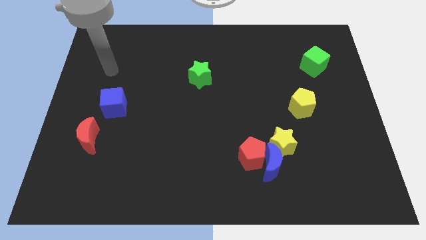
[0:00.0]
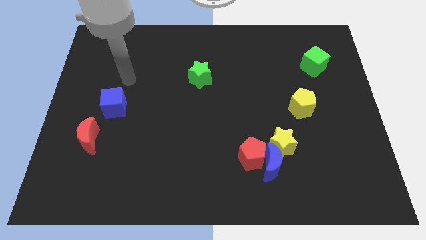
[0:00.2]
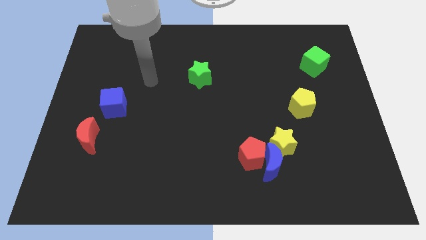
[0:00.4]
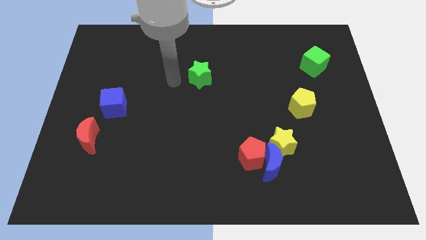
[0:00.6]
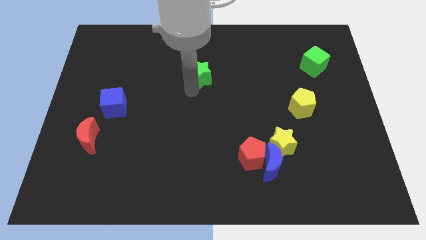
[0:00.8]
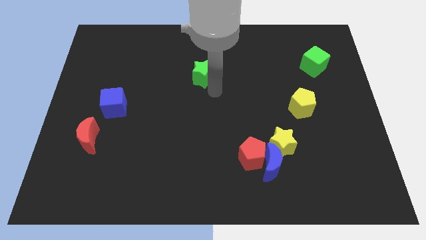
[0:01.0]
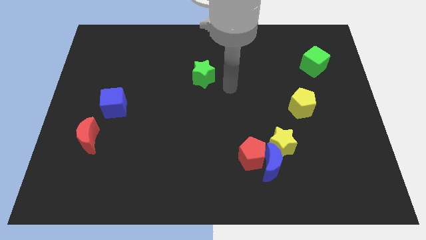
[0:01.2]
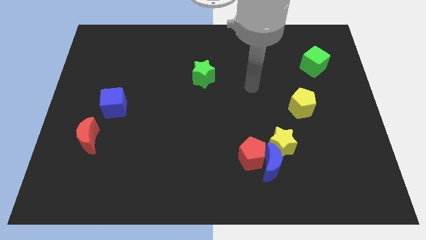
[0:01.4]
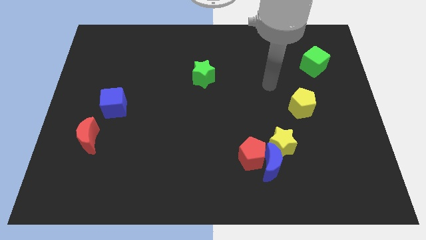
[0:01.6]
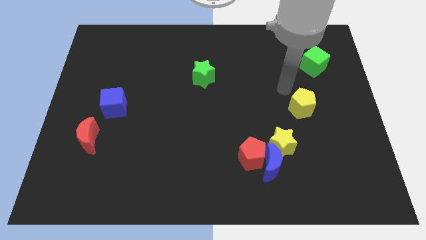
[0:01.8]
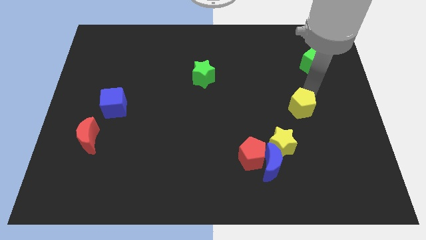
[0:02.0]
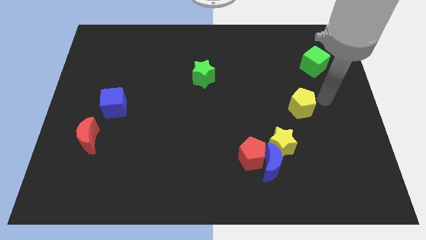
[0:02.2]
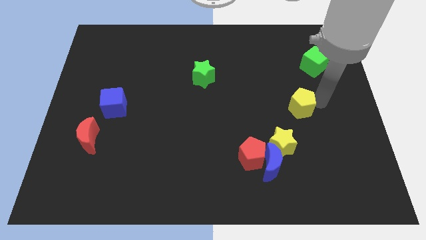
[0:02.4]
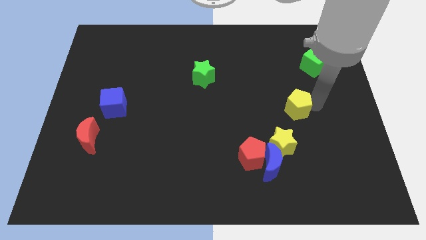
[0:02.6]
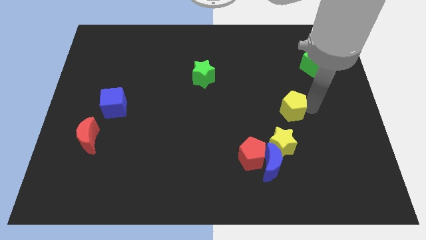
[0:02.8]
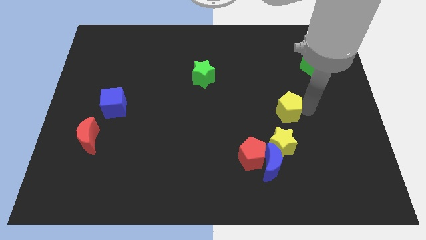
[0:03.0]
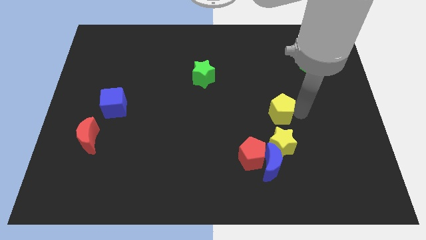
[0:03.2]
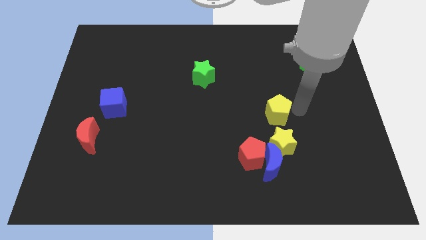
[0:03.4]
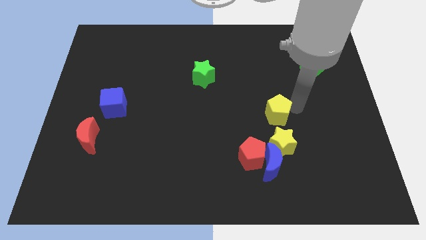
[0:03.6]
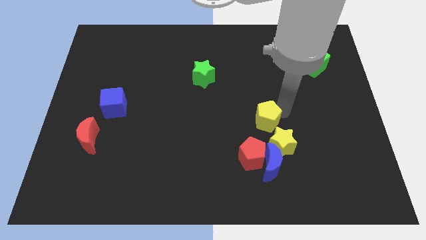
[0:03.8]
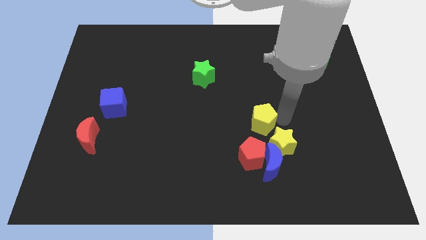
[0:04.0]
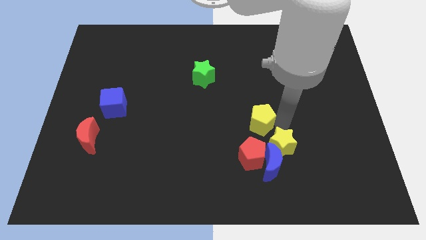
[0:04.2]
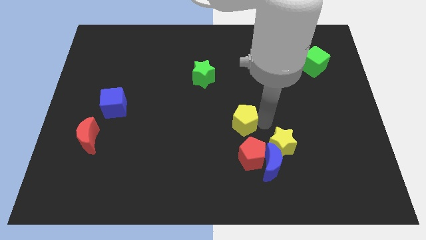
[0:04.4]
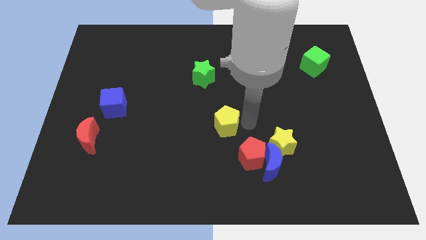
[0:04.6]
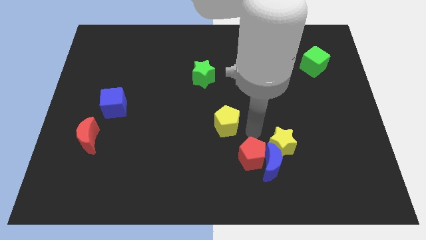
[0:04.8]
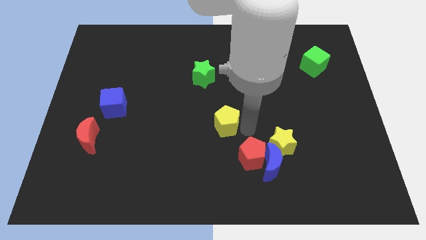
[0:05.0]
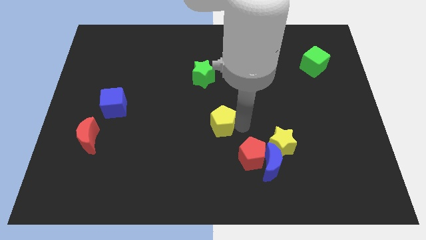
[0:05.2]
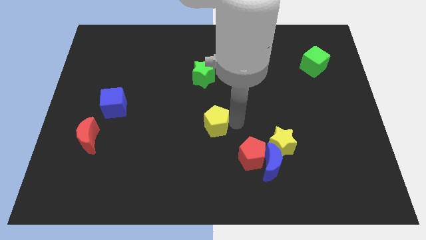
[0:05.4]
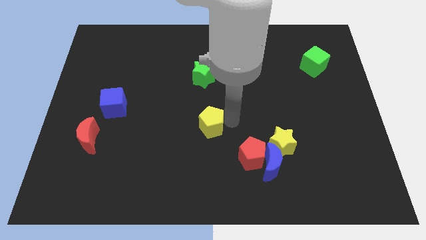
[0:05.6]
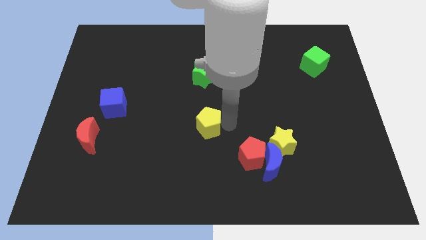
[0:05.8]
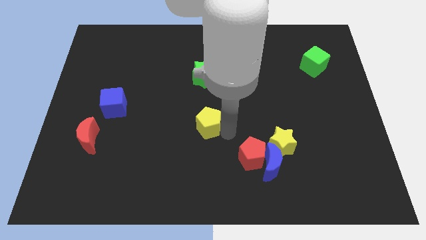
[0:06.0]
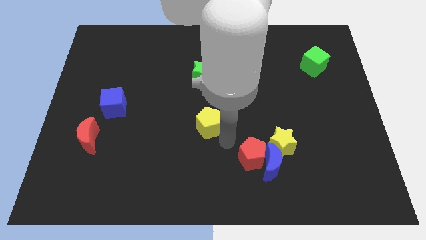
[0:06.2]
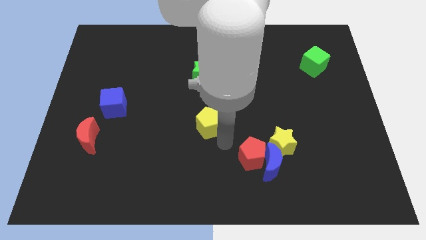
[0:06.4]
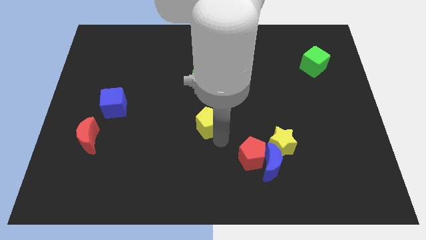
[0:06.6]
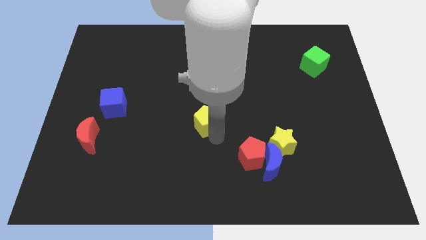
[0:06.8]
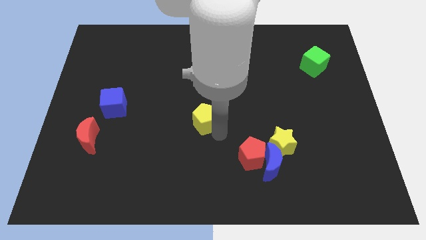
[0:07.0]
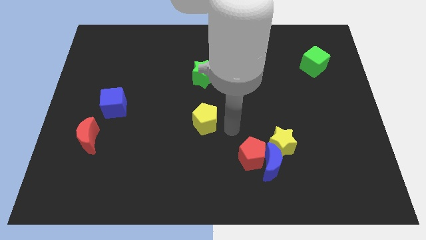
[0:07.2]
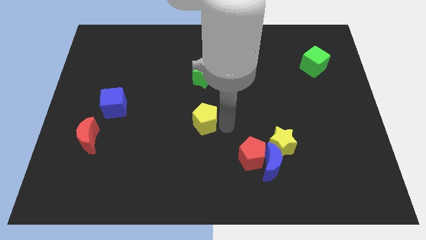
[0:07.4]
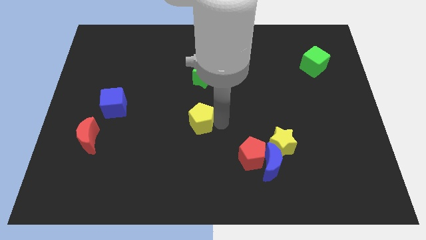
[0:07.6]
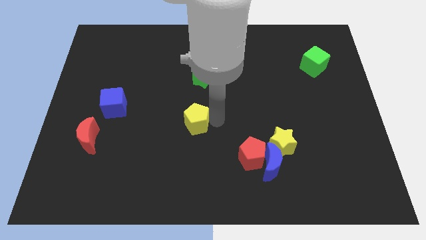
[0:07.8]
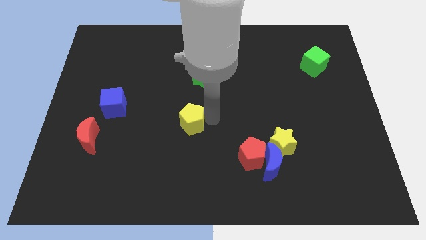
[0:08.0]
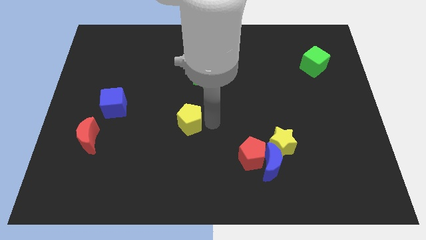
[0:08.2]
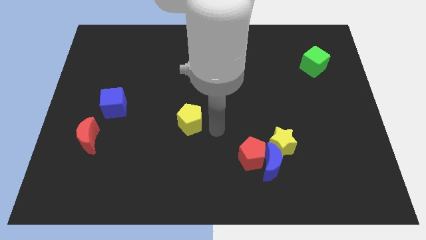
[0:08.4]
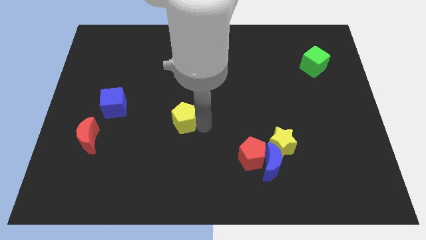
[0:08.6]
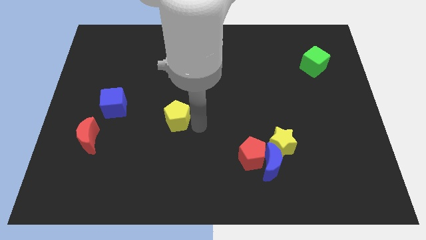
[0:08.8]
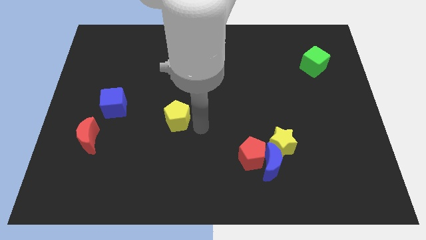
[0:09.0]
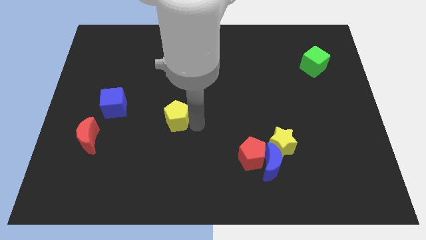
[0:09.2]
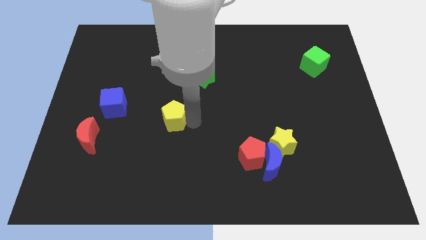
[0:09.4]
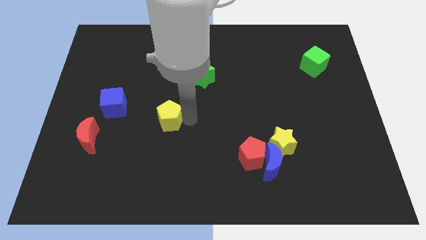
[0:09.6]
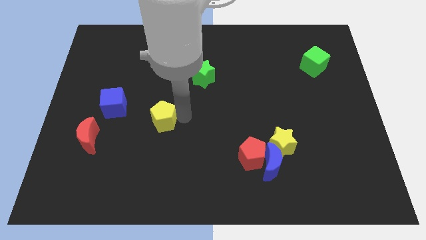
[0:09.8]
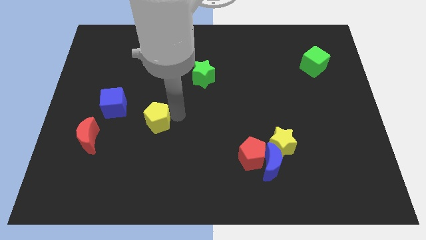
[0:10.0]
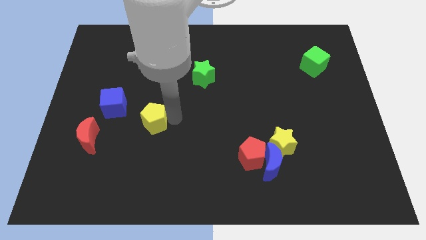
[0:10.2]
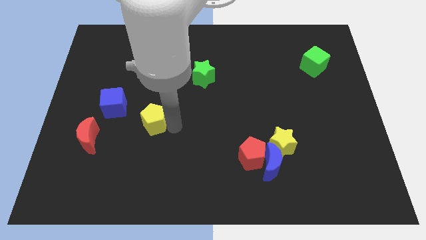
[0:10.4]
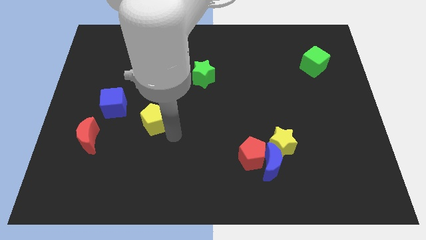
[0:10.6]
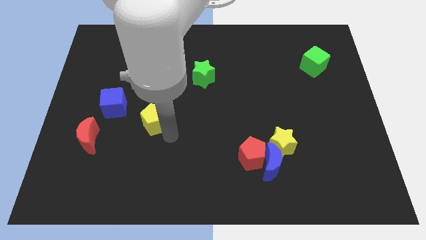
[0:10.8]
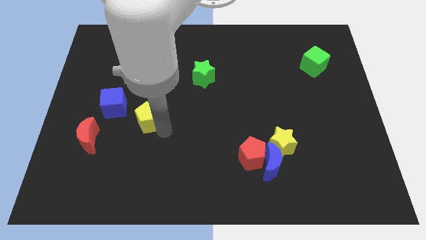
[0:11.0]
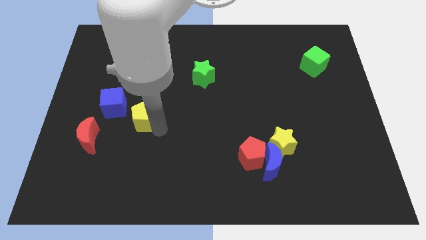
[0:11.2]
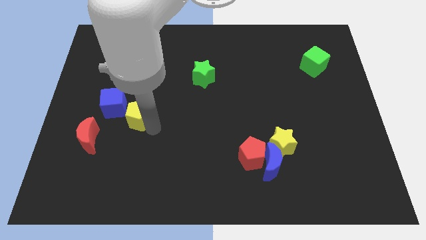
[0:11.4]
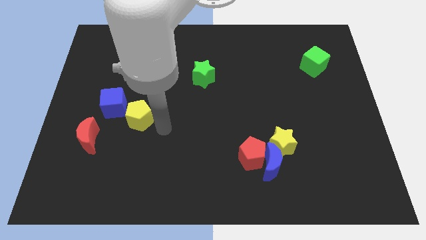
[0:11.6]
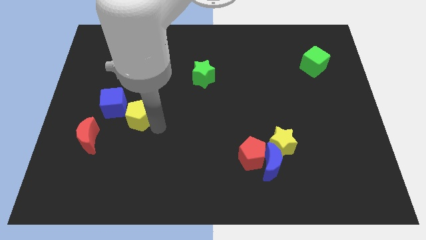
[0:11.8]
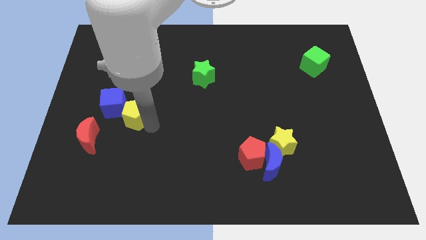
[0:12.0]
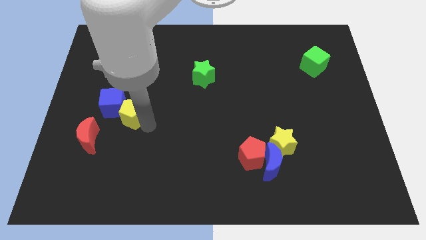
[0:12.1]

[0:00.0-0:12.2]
move the yellow pentagon to the blue cube

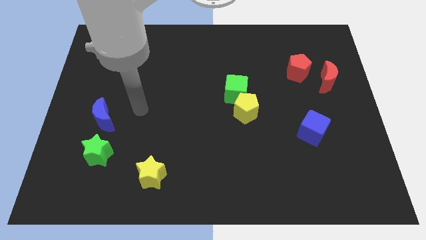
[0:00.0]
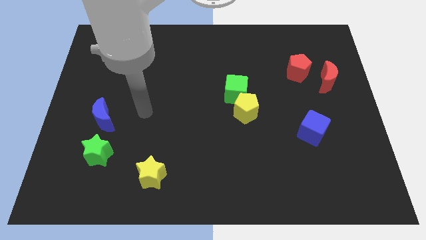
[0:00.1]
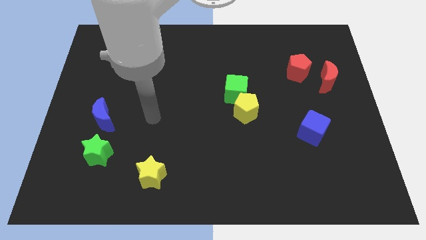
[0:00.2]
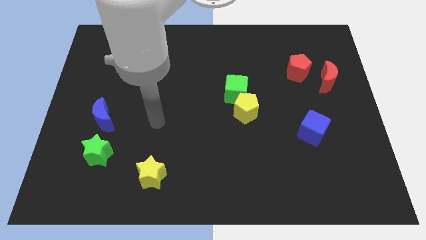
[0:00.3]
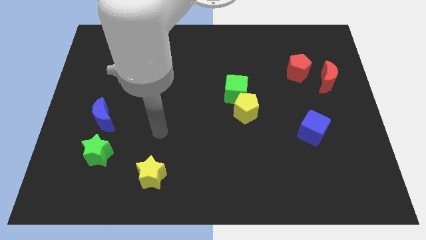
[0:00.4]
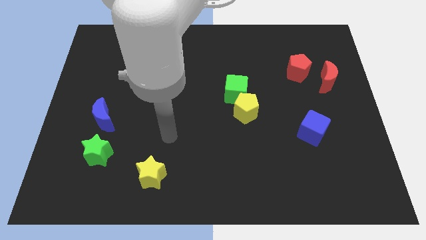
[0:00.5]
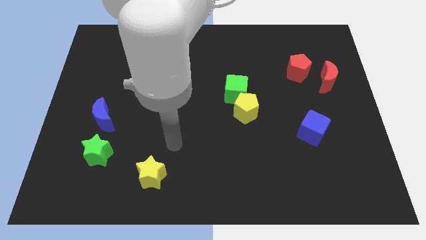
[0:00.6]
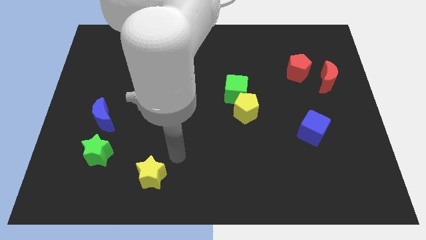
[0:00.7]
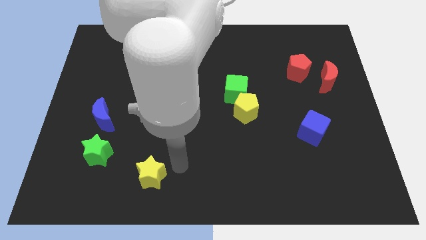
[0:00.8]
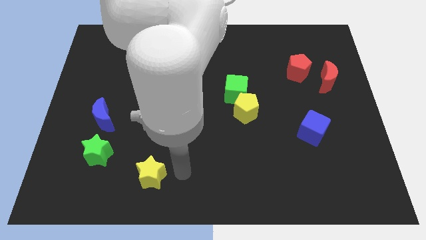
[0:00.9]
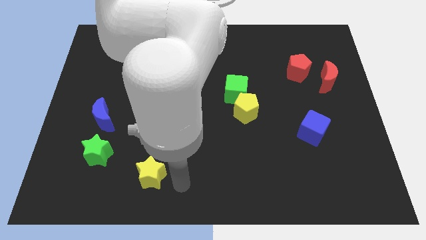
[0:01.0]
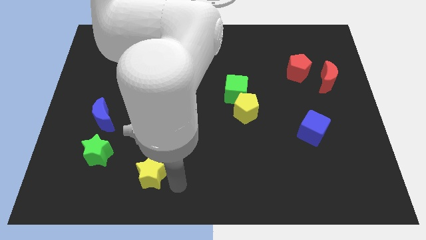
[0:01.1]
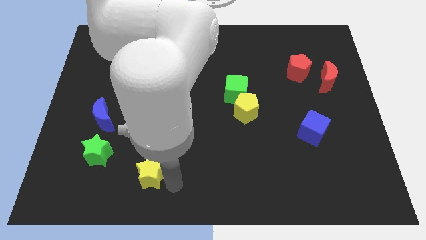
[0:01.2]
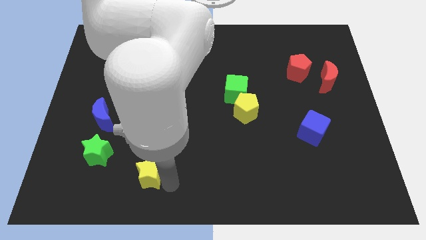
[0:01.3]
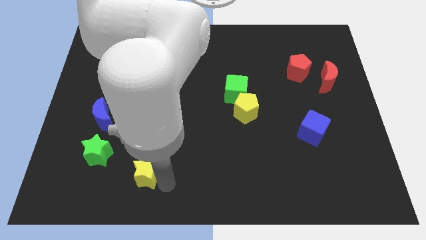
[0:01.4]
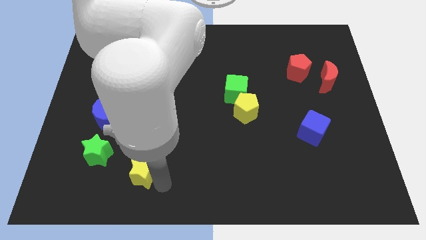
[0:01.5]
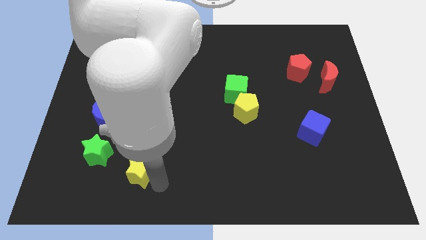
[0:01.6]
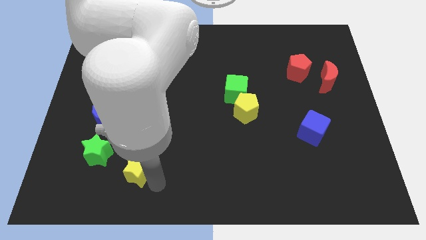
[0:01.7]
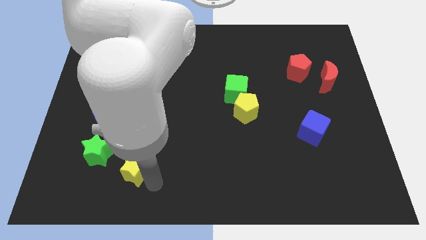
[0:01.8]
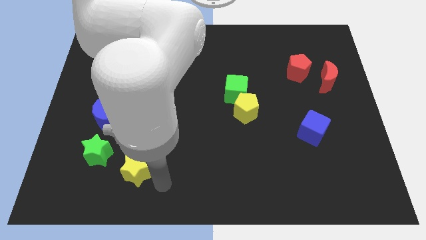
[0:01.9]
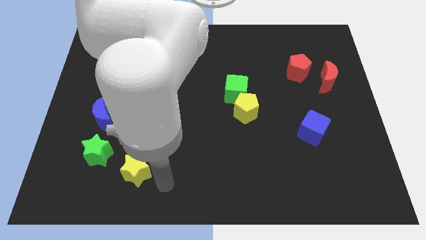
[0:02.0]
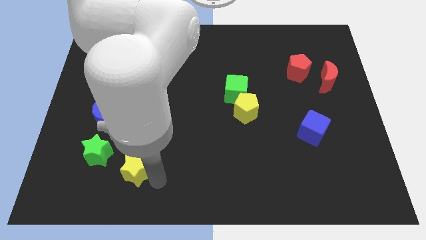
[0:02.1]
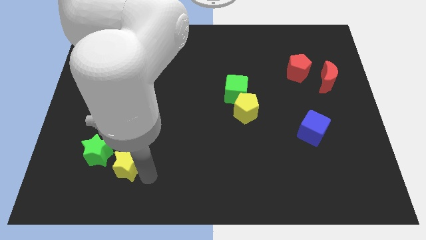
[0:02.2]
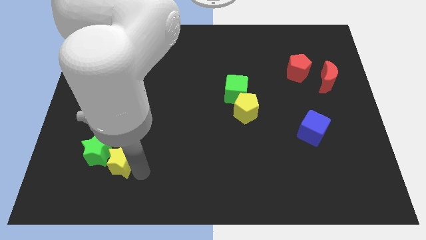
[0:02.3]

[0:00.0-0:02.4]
put the yellow star towards the green star
